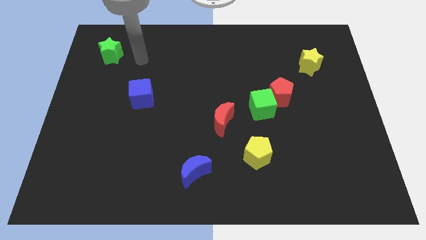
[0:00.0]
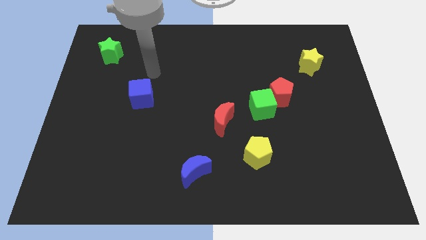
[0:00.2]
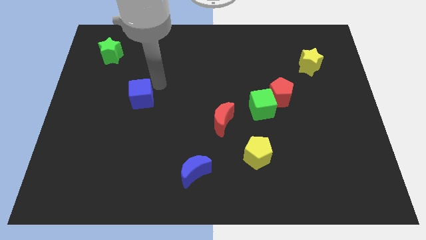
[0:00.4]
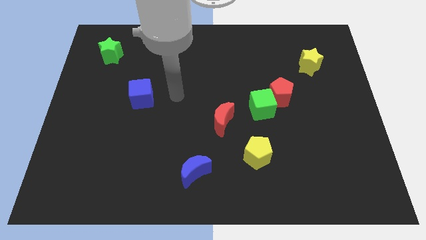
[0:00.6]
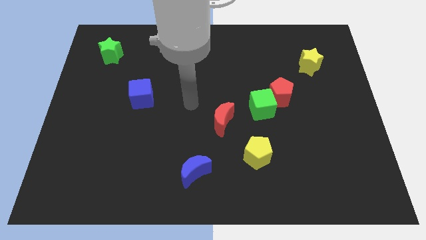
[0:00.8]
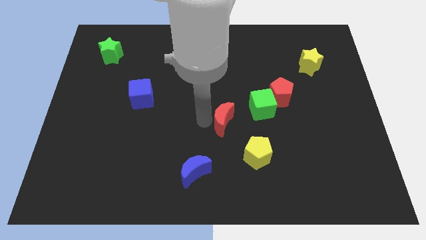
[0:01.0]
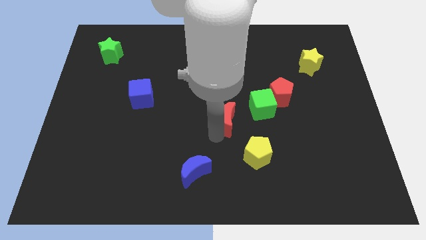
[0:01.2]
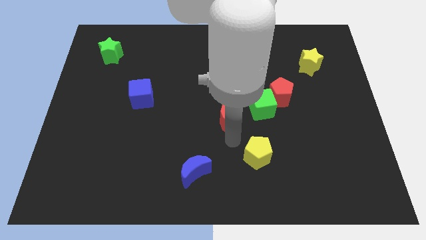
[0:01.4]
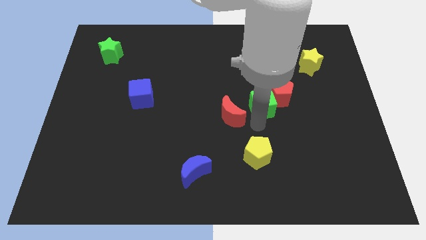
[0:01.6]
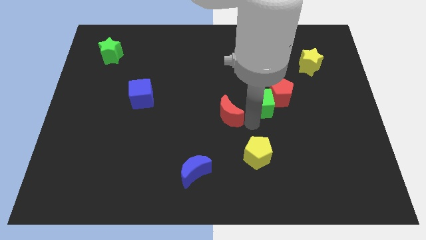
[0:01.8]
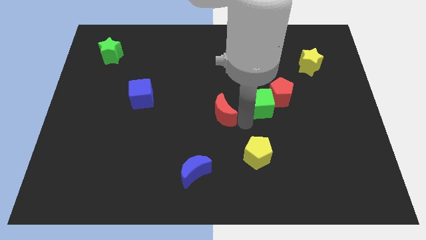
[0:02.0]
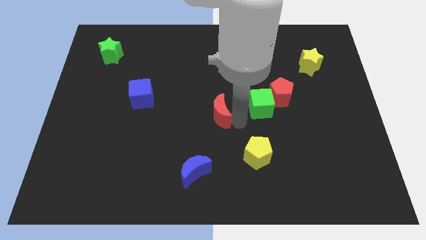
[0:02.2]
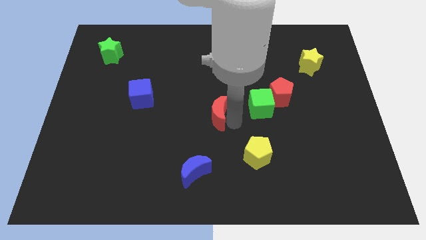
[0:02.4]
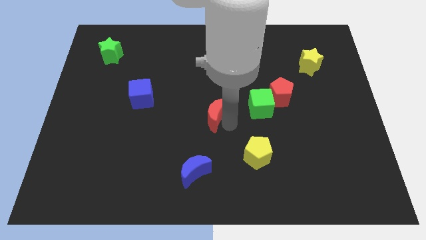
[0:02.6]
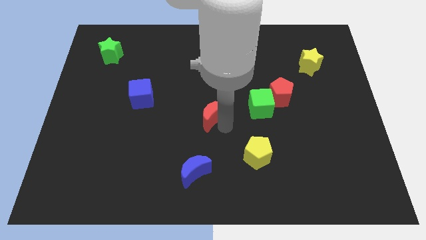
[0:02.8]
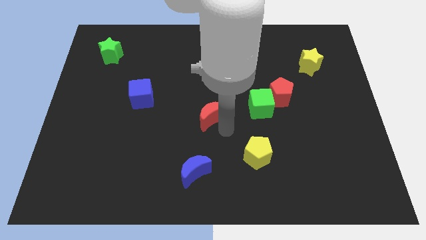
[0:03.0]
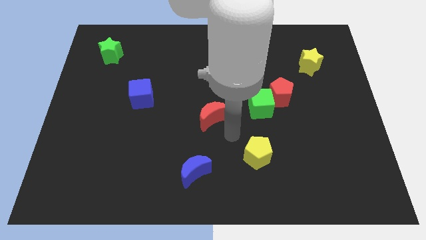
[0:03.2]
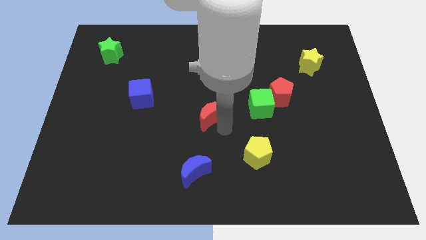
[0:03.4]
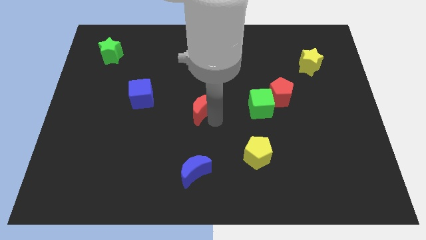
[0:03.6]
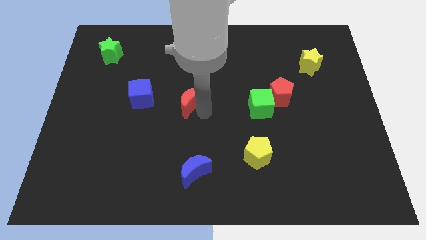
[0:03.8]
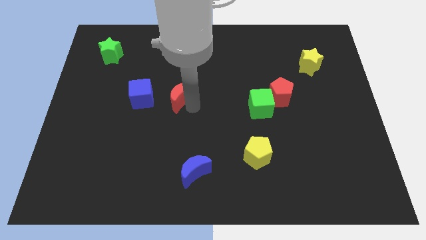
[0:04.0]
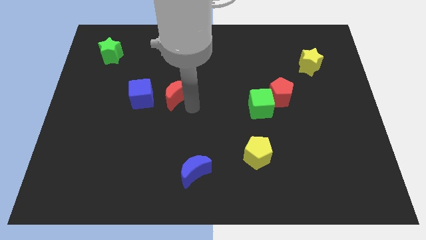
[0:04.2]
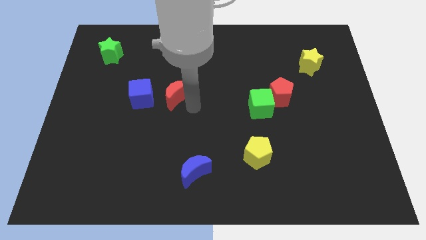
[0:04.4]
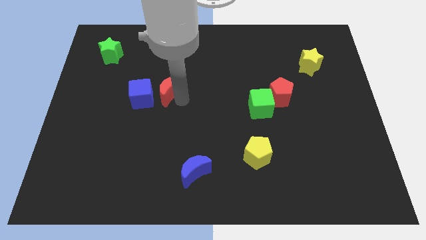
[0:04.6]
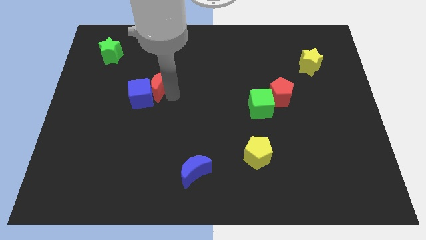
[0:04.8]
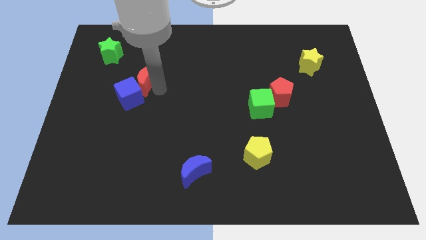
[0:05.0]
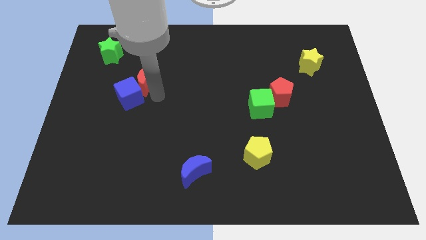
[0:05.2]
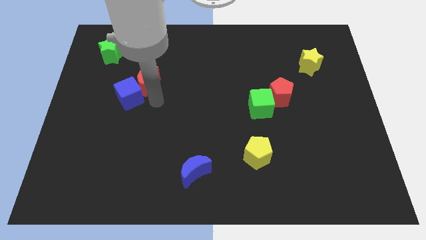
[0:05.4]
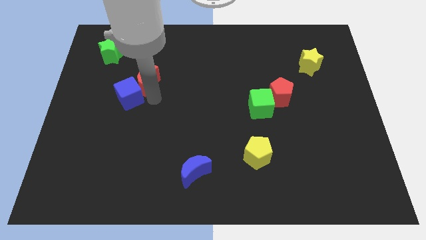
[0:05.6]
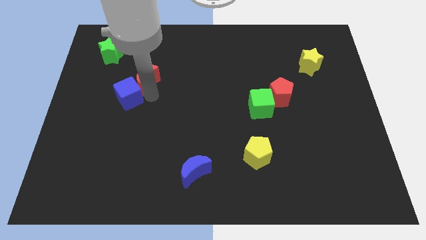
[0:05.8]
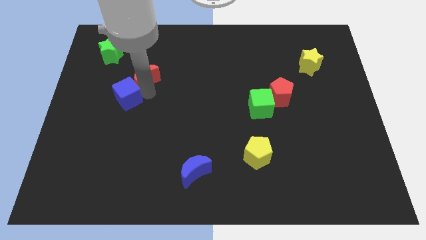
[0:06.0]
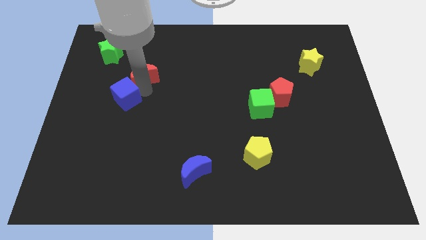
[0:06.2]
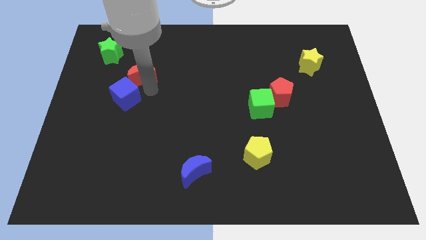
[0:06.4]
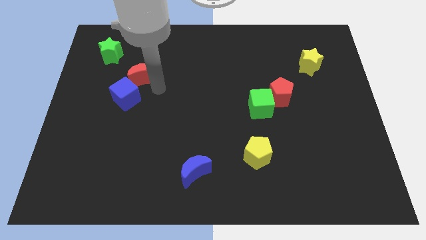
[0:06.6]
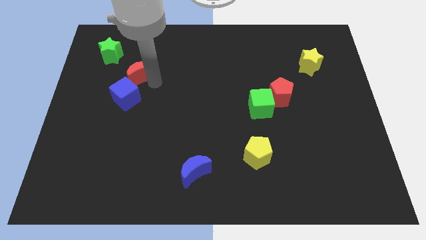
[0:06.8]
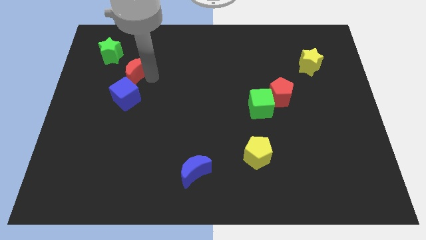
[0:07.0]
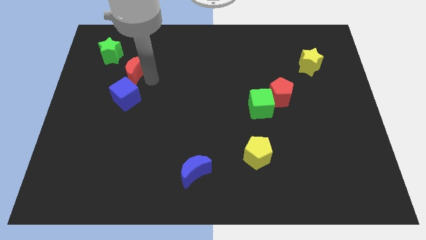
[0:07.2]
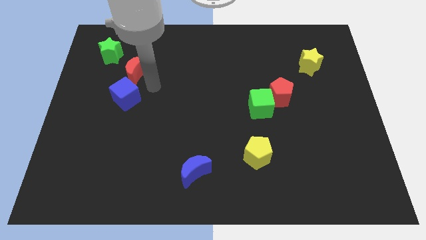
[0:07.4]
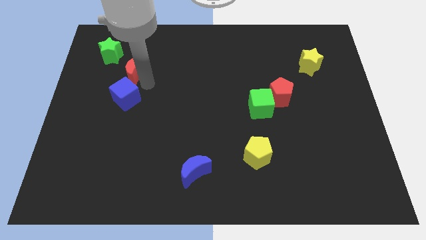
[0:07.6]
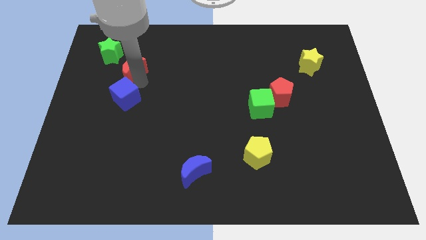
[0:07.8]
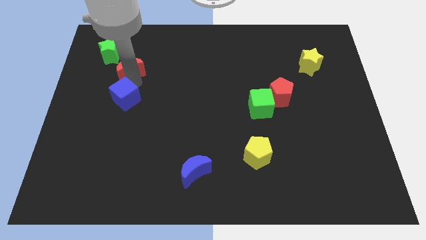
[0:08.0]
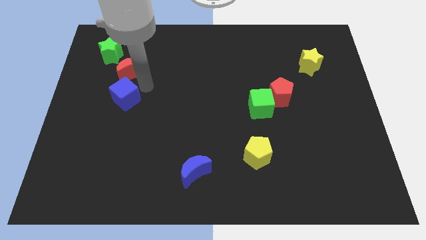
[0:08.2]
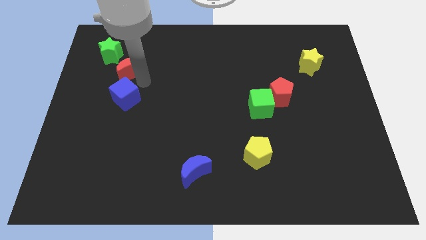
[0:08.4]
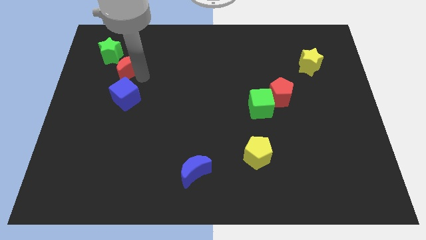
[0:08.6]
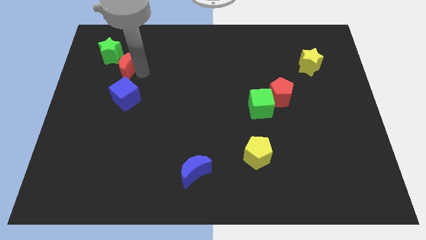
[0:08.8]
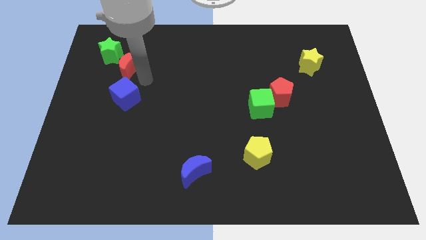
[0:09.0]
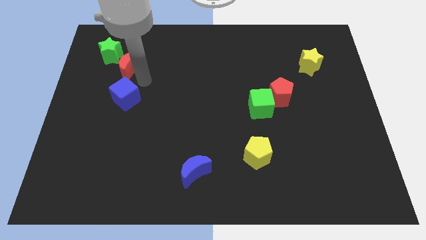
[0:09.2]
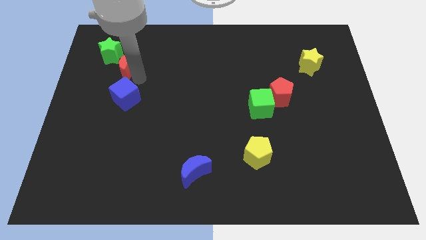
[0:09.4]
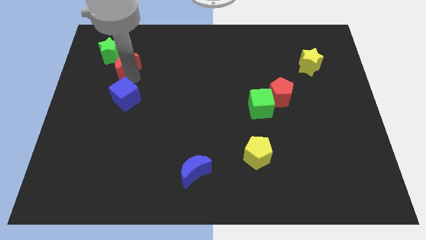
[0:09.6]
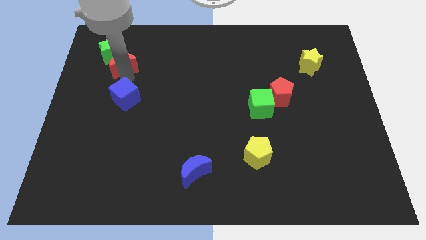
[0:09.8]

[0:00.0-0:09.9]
move the red moon to the green star

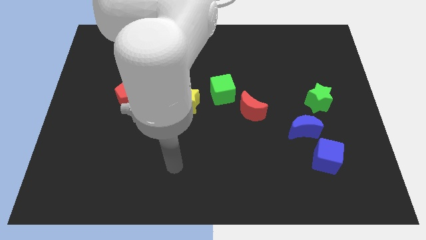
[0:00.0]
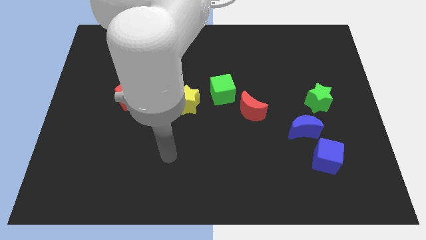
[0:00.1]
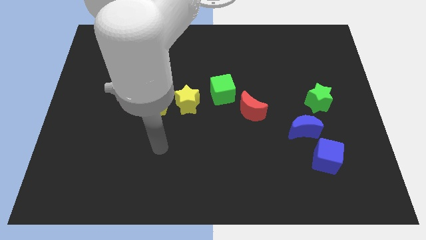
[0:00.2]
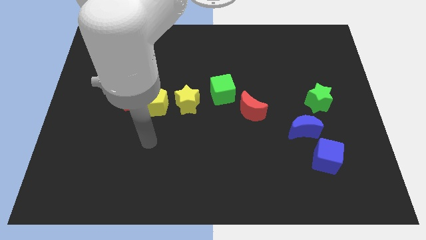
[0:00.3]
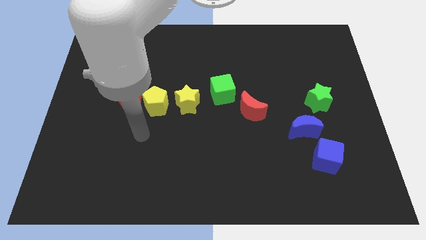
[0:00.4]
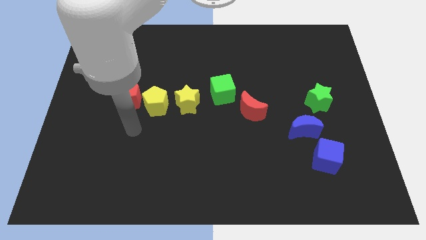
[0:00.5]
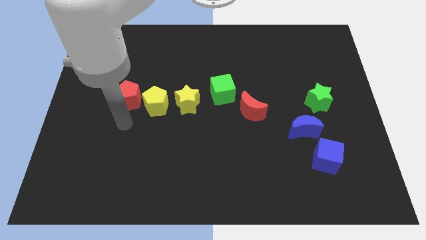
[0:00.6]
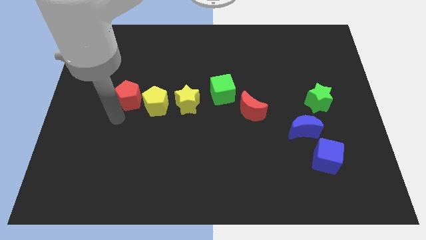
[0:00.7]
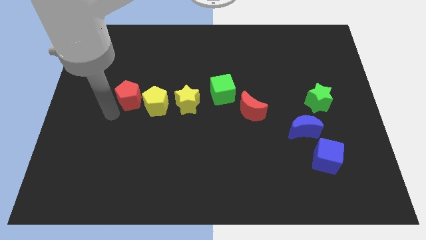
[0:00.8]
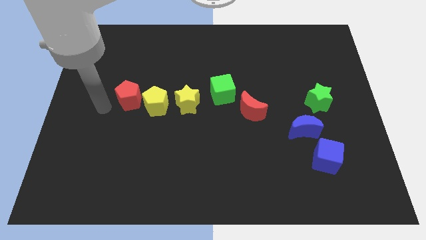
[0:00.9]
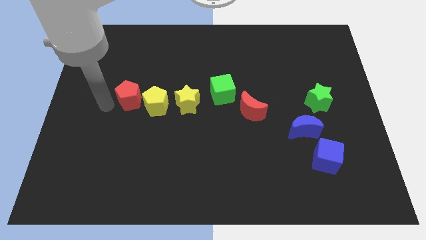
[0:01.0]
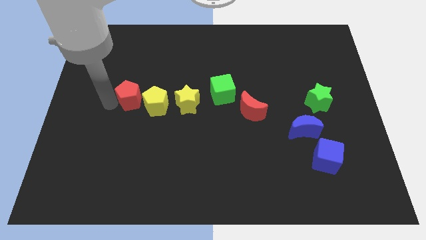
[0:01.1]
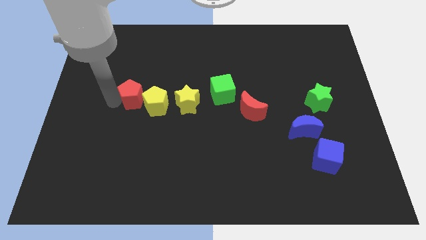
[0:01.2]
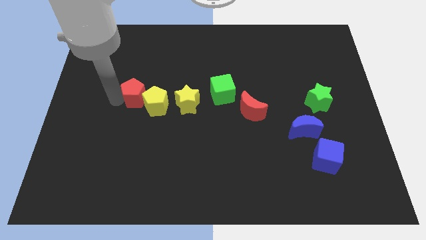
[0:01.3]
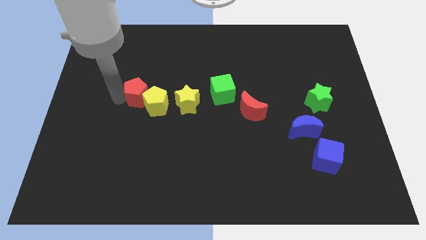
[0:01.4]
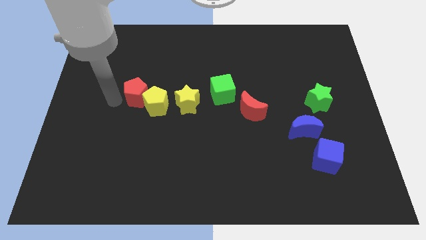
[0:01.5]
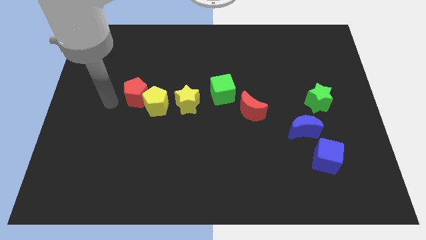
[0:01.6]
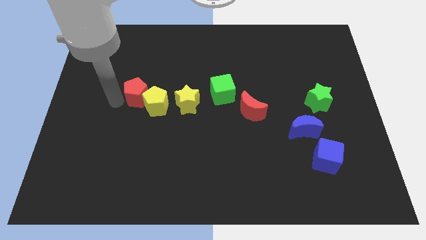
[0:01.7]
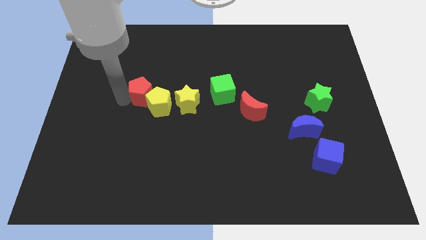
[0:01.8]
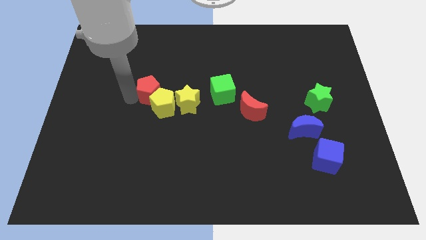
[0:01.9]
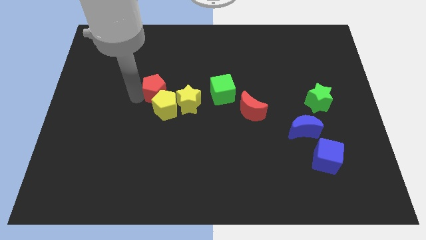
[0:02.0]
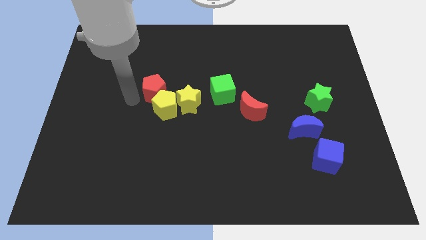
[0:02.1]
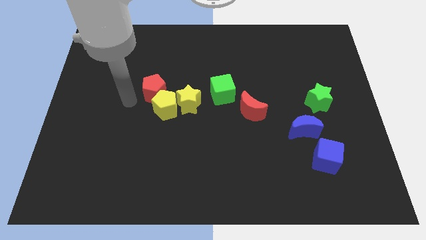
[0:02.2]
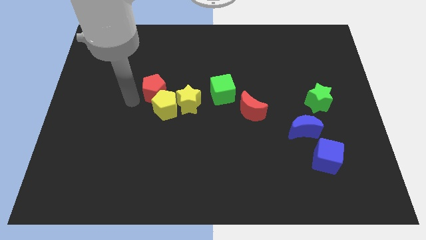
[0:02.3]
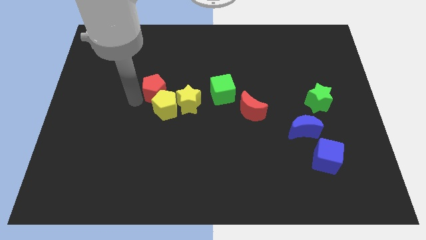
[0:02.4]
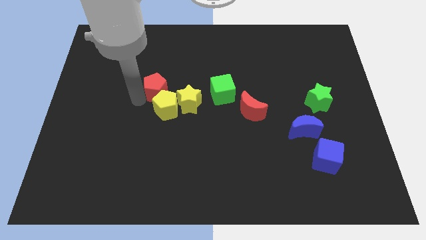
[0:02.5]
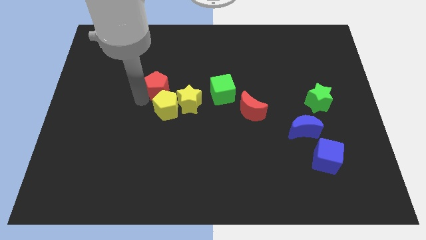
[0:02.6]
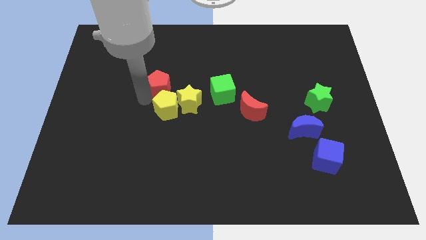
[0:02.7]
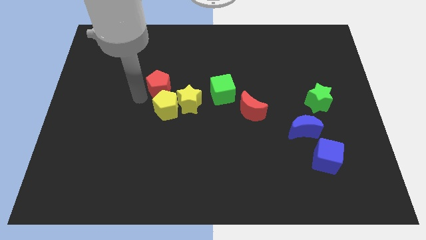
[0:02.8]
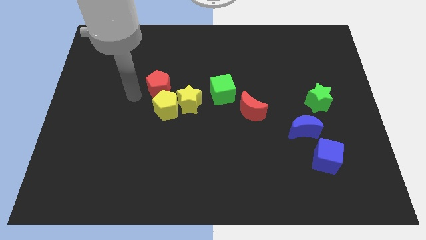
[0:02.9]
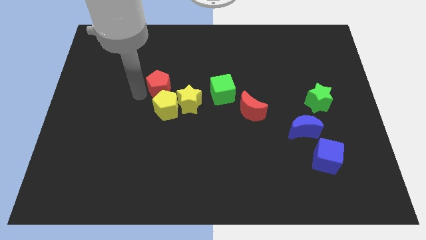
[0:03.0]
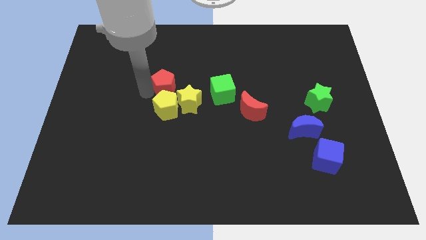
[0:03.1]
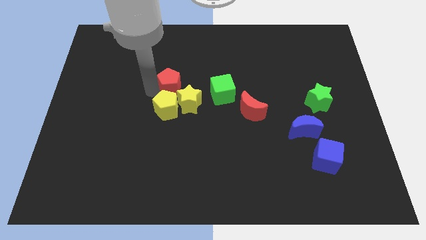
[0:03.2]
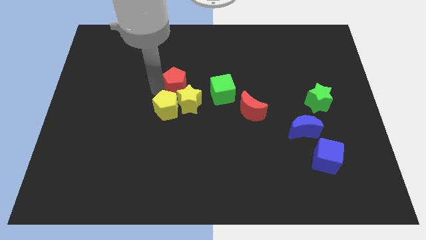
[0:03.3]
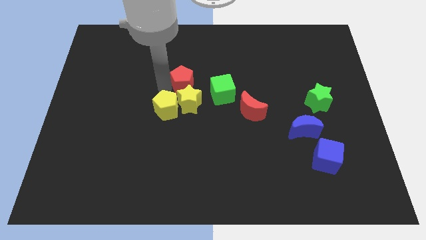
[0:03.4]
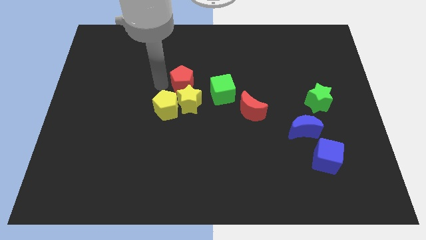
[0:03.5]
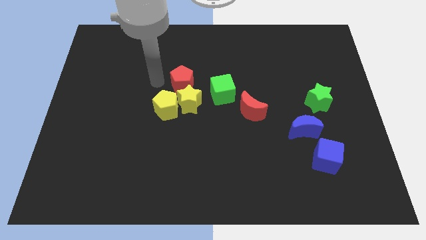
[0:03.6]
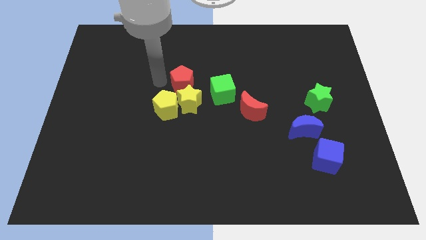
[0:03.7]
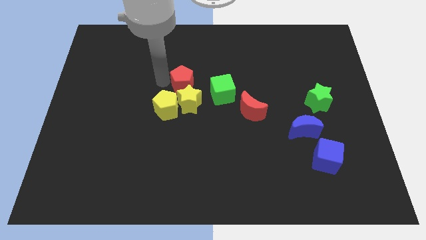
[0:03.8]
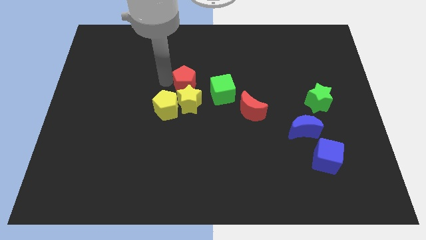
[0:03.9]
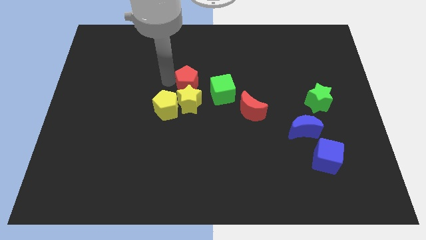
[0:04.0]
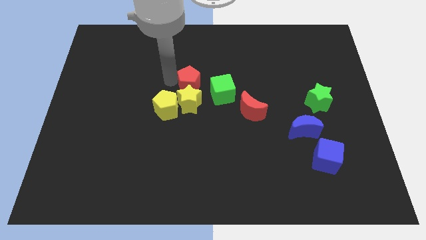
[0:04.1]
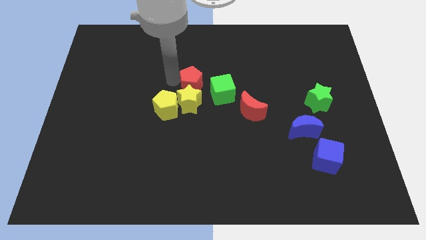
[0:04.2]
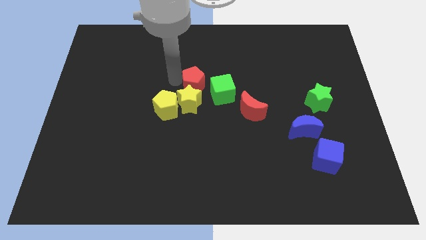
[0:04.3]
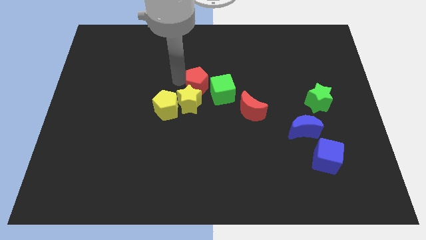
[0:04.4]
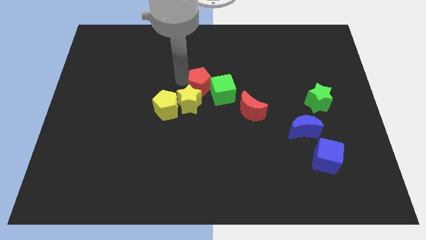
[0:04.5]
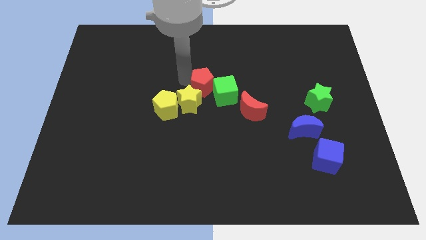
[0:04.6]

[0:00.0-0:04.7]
put the red pentagon towards the green cube
